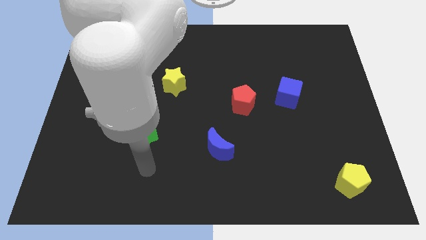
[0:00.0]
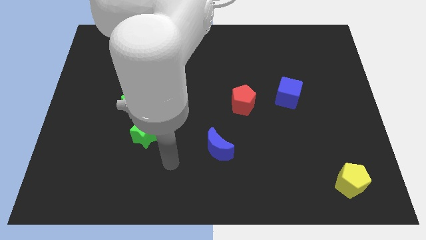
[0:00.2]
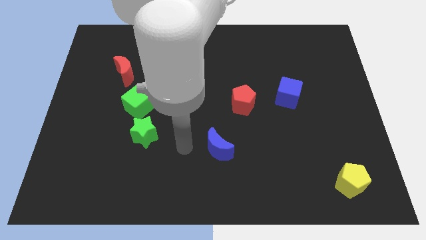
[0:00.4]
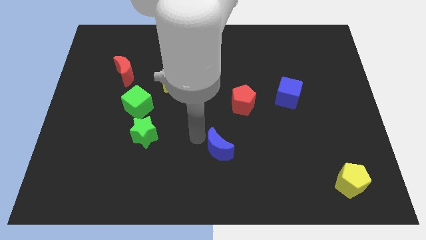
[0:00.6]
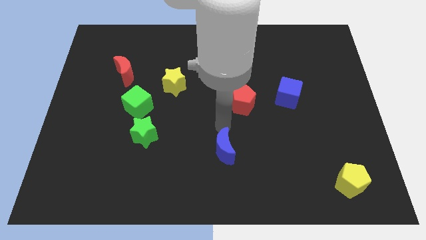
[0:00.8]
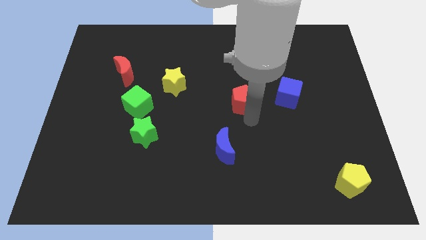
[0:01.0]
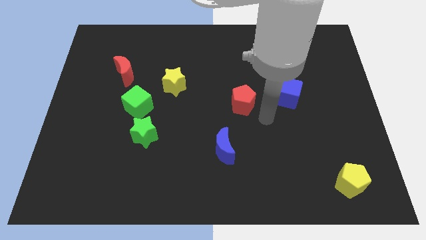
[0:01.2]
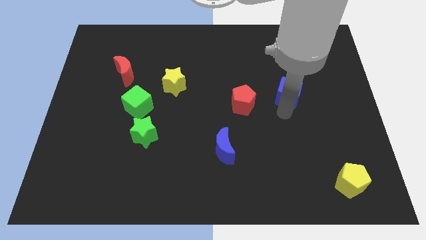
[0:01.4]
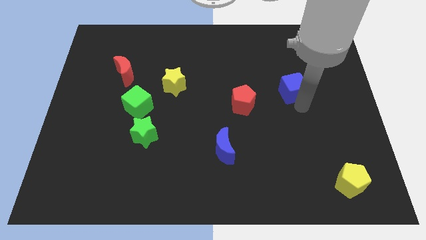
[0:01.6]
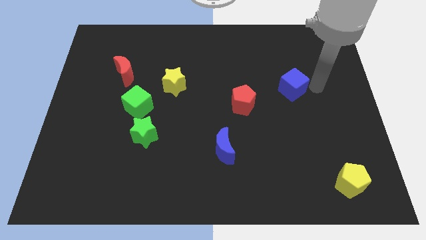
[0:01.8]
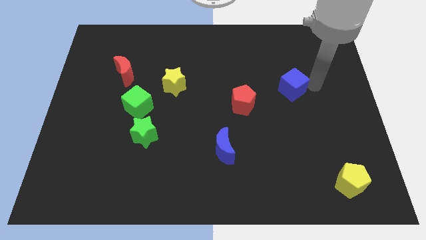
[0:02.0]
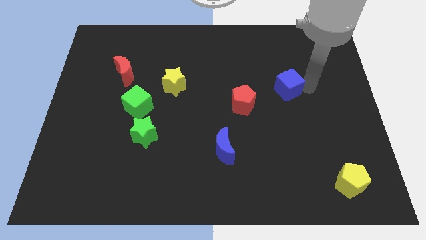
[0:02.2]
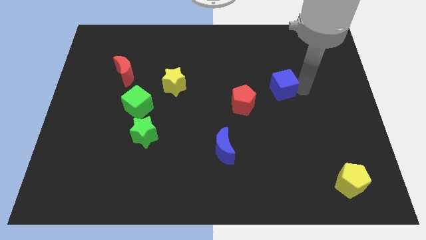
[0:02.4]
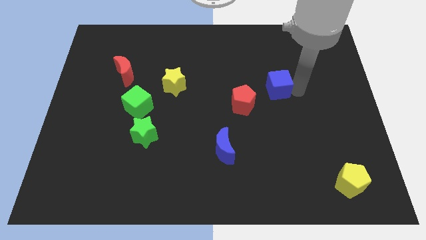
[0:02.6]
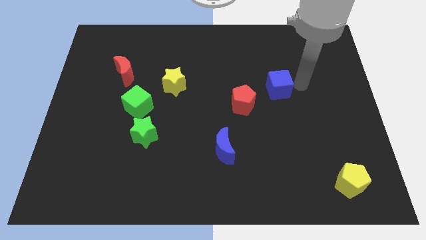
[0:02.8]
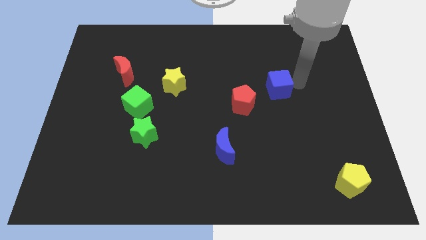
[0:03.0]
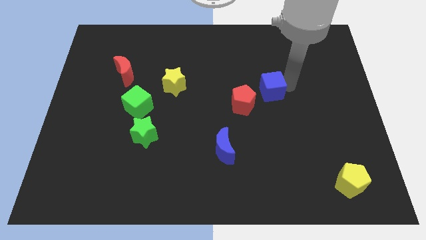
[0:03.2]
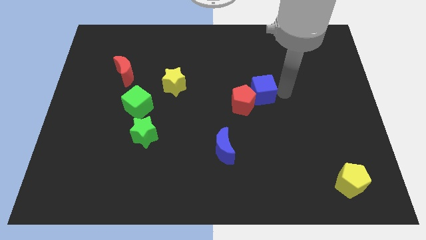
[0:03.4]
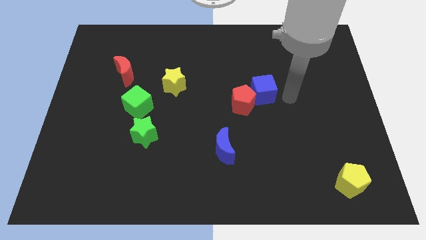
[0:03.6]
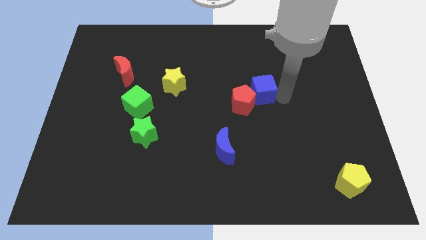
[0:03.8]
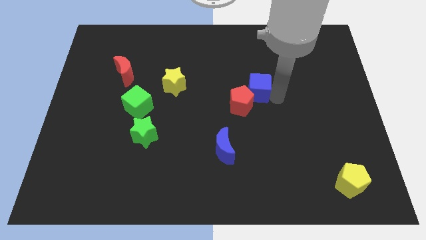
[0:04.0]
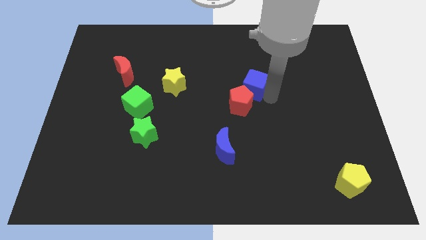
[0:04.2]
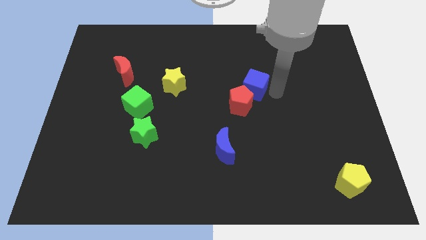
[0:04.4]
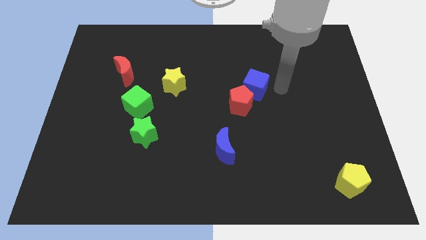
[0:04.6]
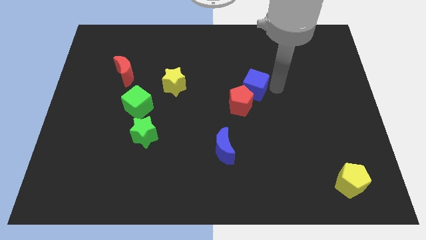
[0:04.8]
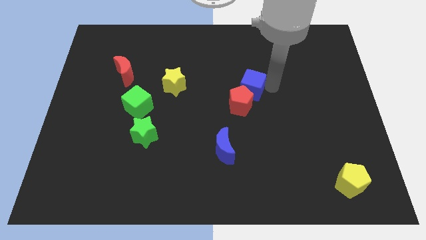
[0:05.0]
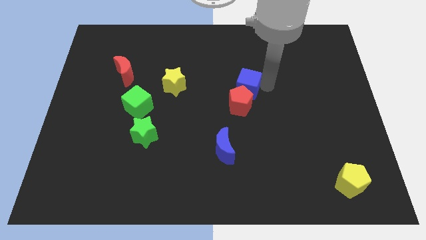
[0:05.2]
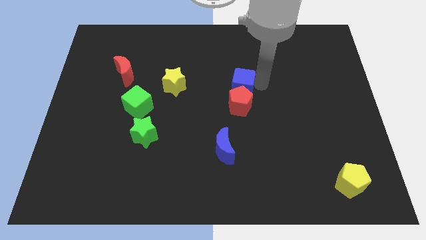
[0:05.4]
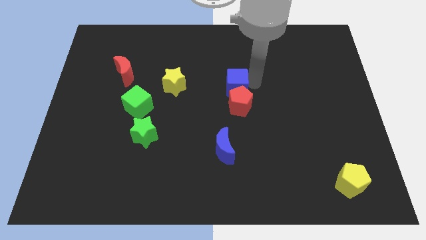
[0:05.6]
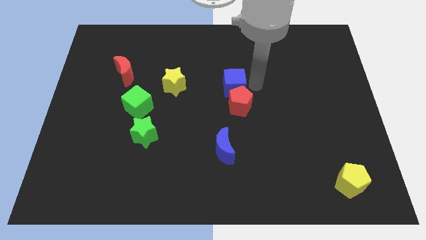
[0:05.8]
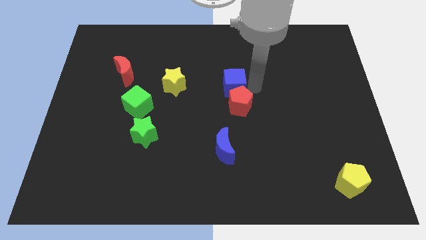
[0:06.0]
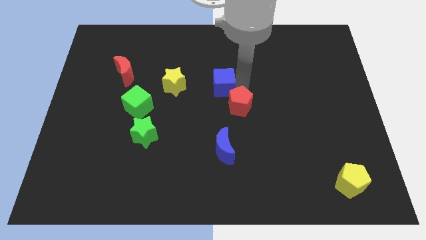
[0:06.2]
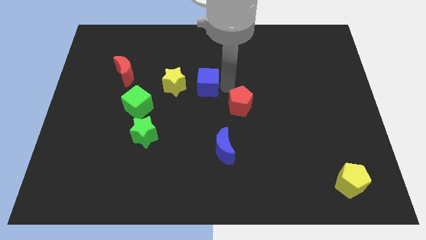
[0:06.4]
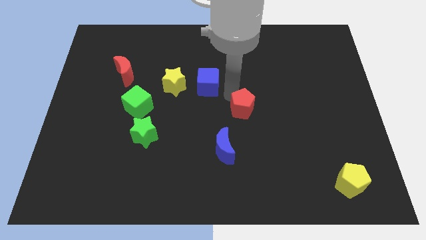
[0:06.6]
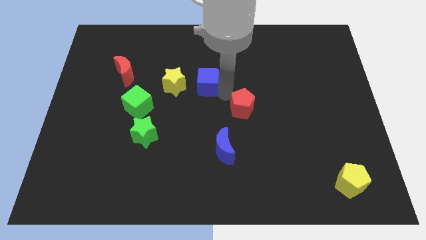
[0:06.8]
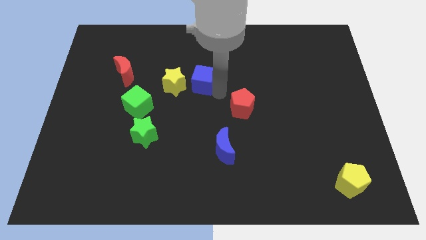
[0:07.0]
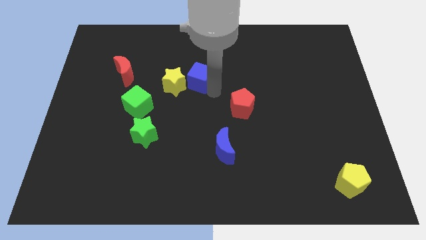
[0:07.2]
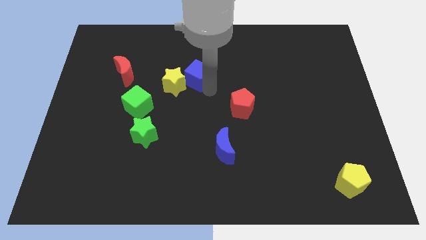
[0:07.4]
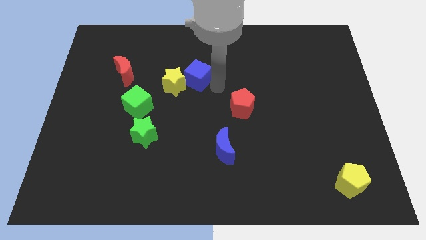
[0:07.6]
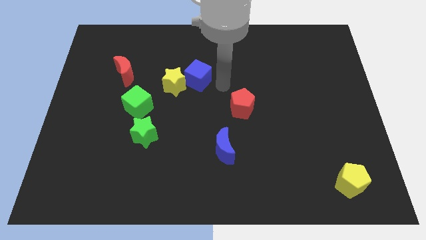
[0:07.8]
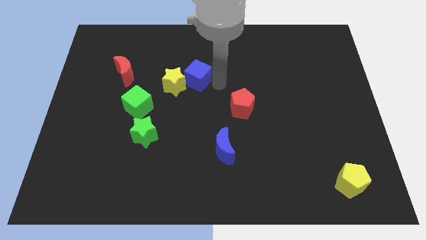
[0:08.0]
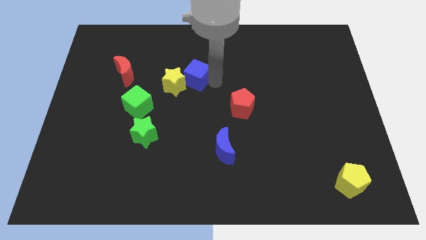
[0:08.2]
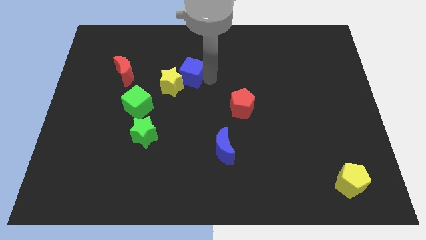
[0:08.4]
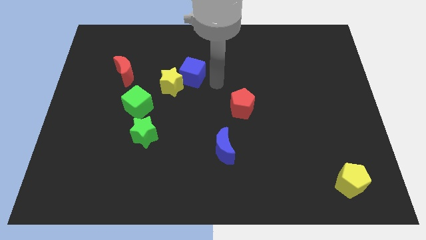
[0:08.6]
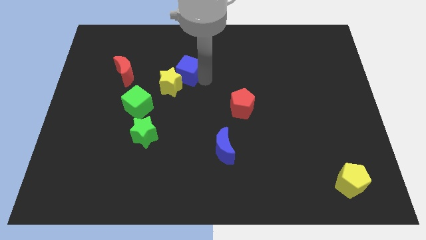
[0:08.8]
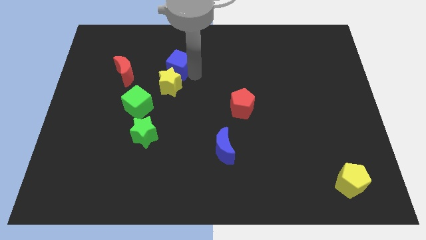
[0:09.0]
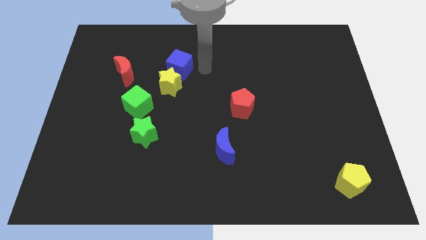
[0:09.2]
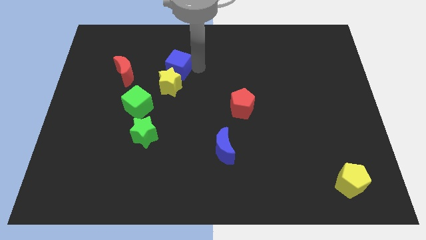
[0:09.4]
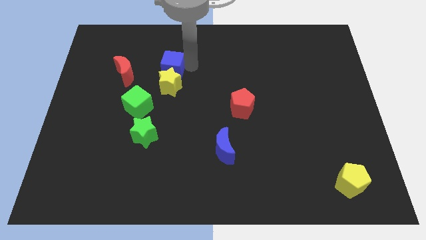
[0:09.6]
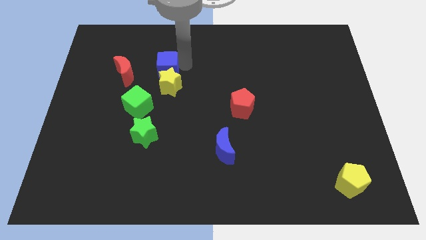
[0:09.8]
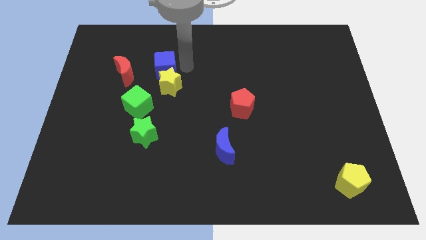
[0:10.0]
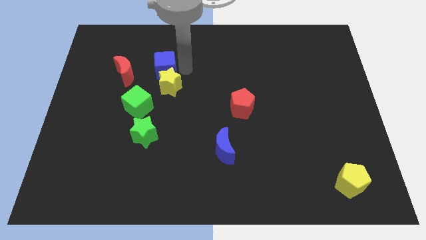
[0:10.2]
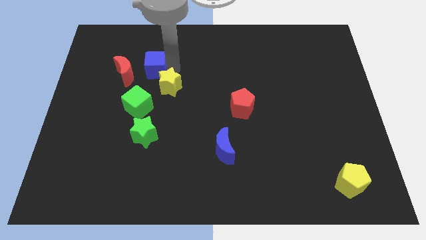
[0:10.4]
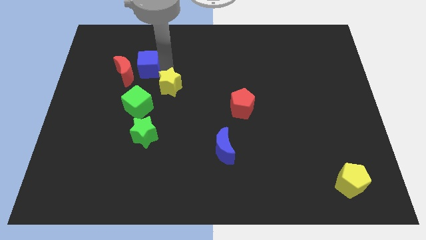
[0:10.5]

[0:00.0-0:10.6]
move the blue cube to the red moon

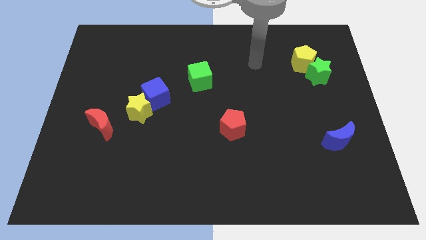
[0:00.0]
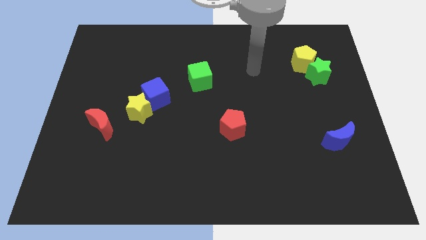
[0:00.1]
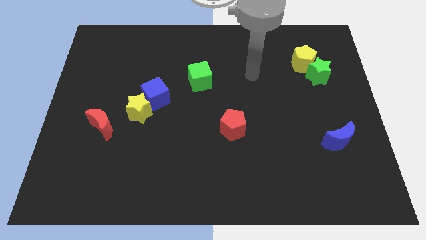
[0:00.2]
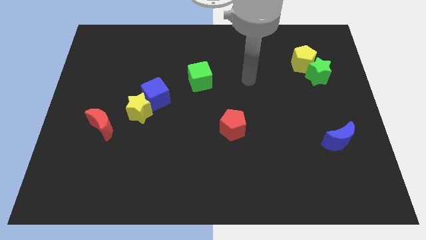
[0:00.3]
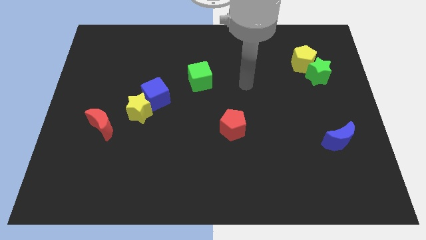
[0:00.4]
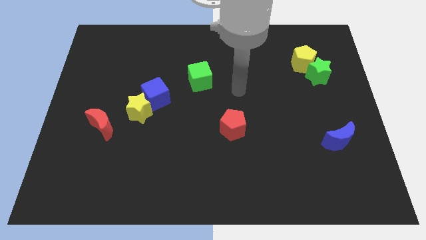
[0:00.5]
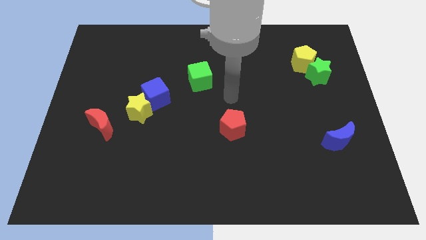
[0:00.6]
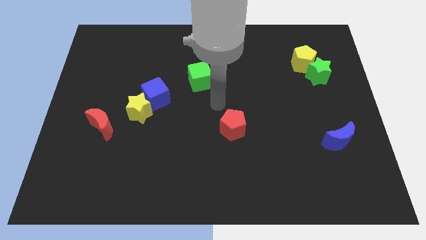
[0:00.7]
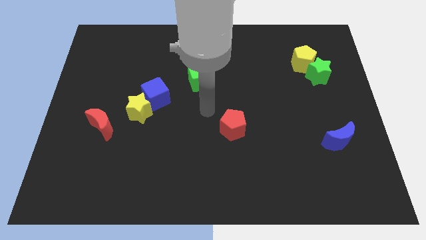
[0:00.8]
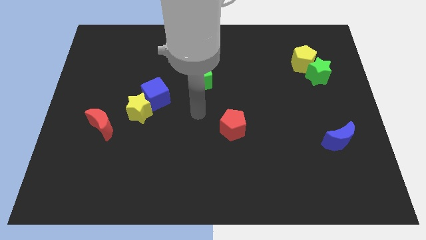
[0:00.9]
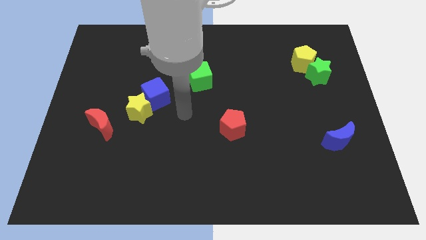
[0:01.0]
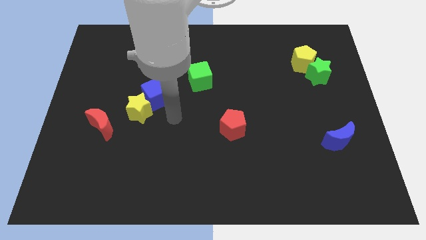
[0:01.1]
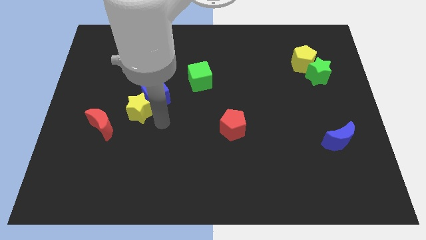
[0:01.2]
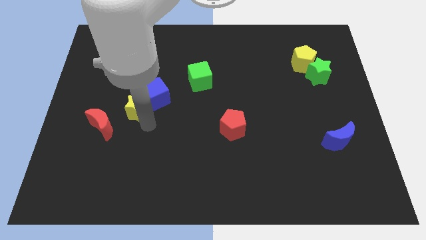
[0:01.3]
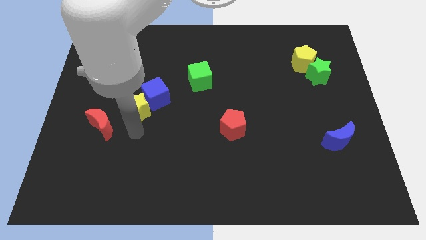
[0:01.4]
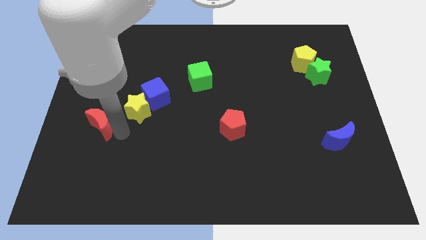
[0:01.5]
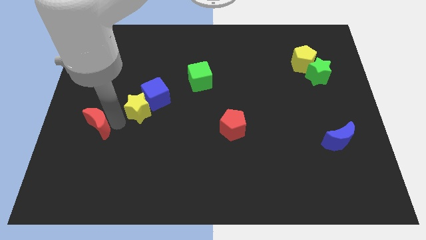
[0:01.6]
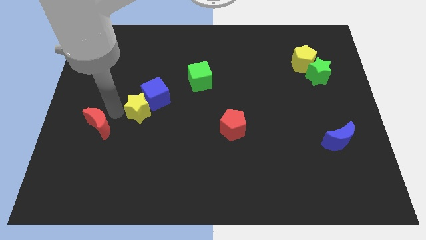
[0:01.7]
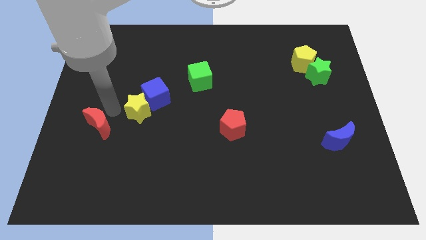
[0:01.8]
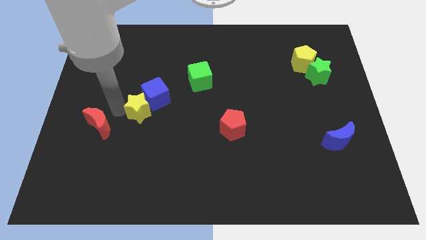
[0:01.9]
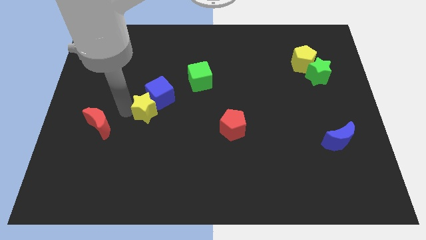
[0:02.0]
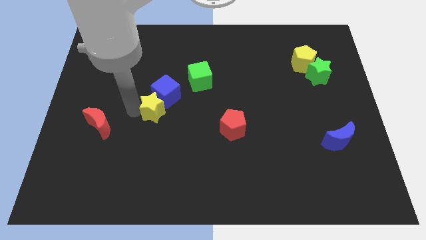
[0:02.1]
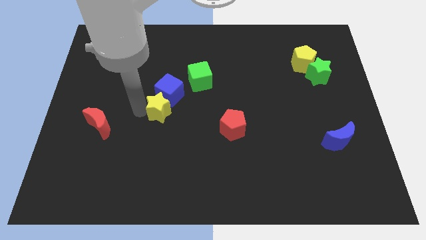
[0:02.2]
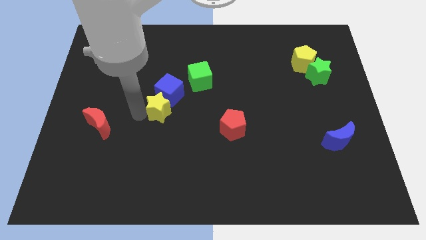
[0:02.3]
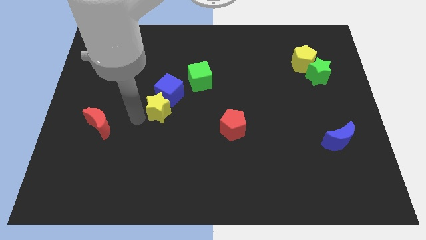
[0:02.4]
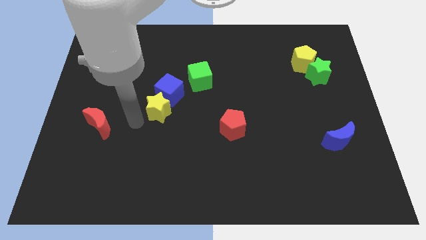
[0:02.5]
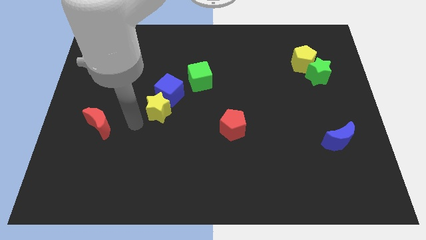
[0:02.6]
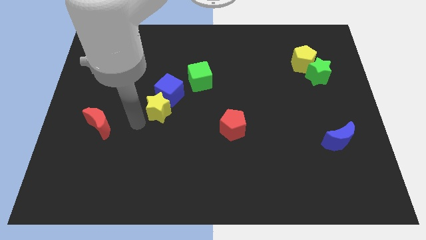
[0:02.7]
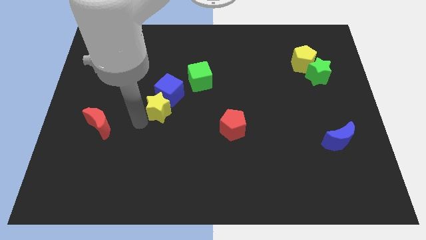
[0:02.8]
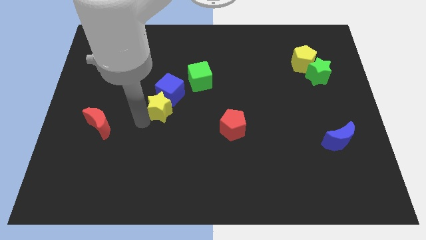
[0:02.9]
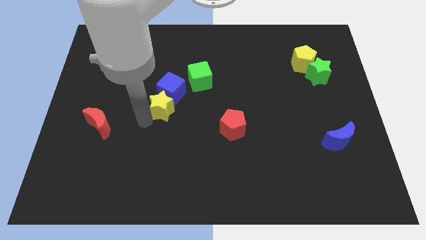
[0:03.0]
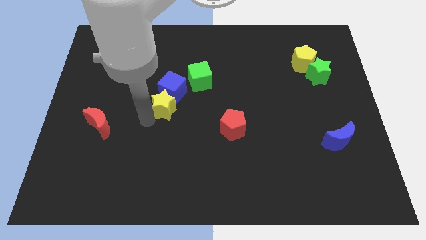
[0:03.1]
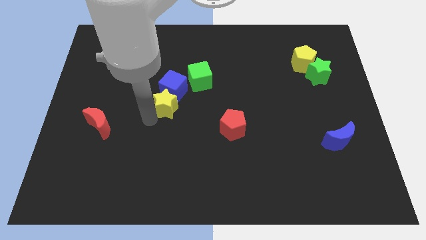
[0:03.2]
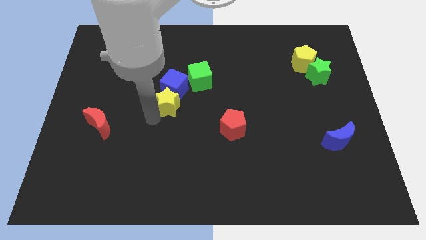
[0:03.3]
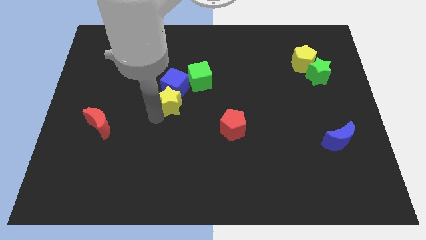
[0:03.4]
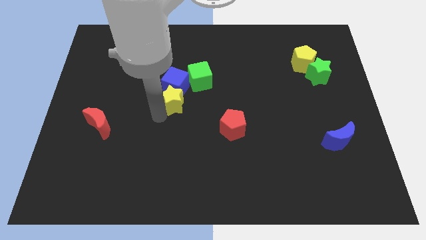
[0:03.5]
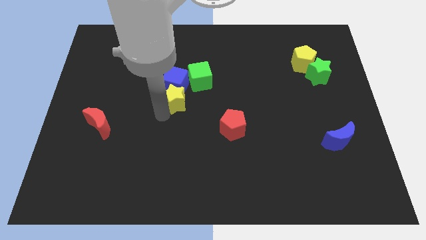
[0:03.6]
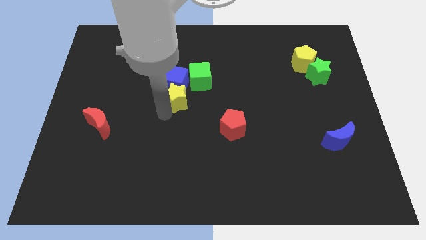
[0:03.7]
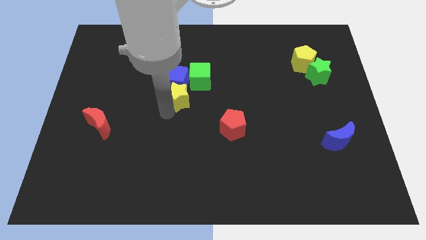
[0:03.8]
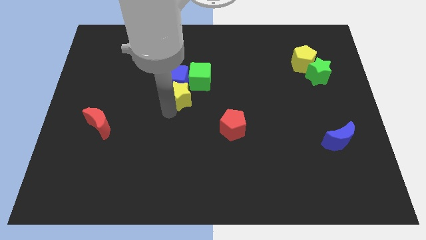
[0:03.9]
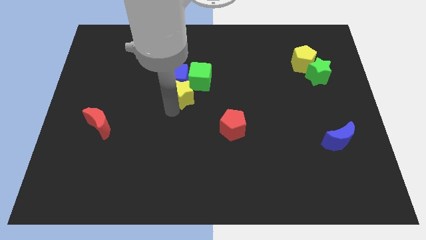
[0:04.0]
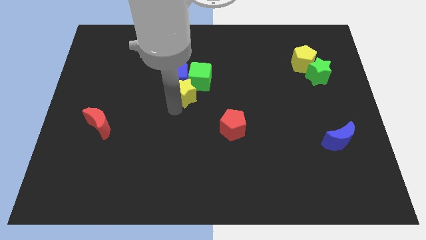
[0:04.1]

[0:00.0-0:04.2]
slide the yellow star close to the green cube
